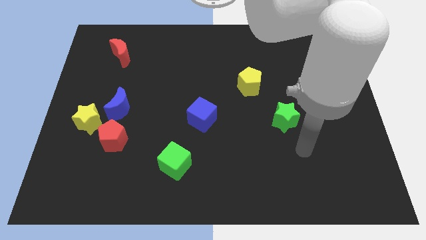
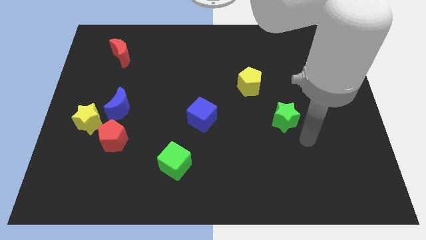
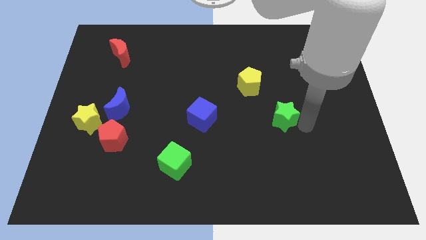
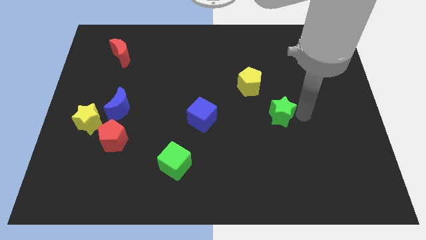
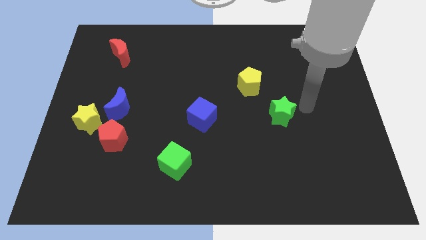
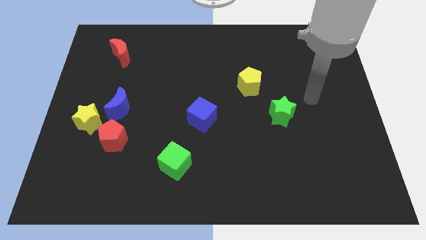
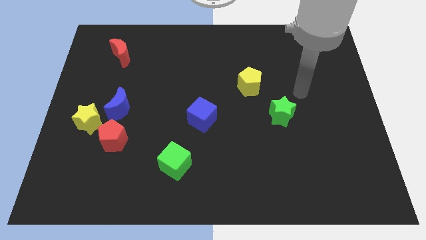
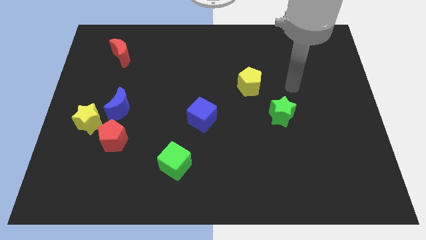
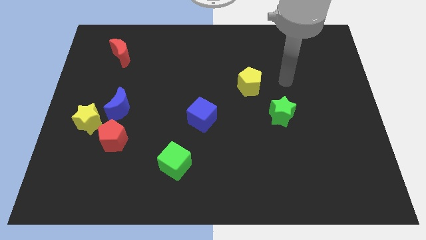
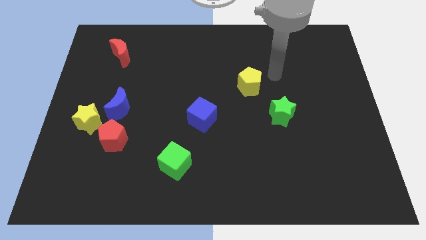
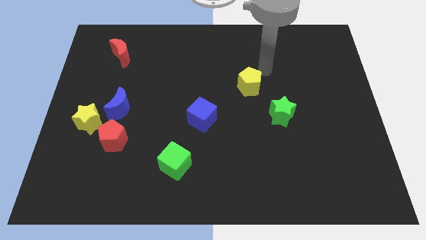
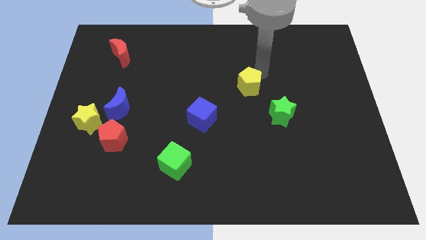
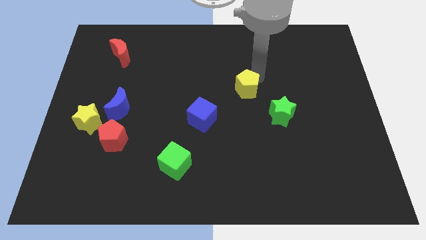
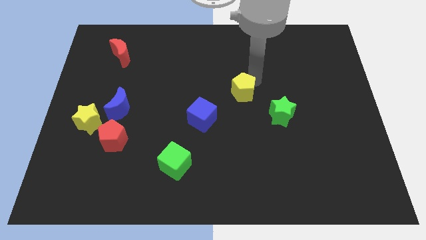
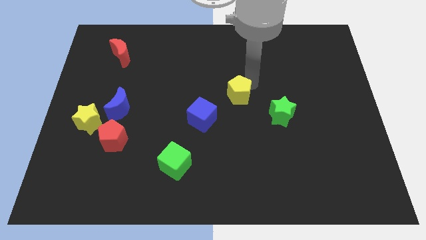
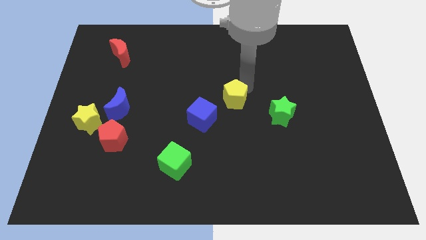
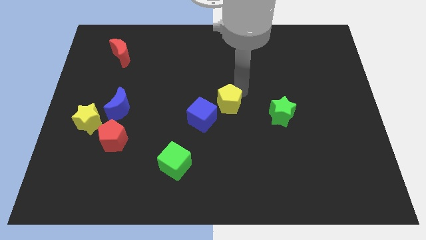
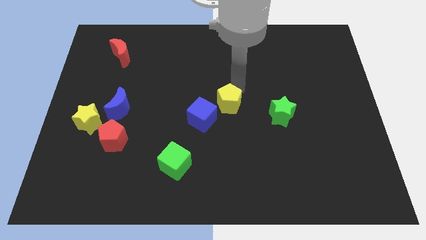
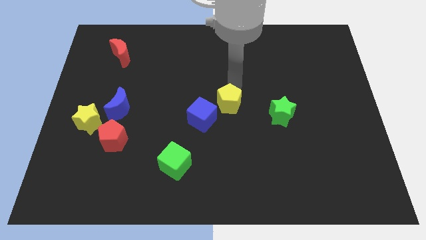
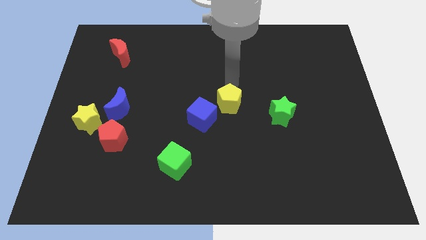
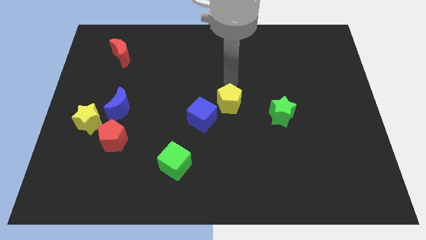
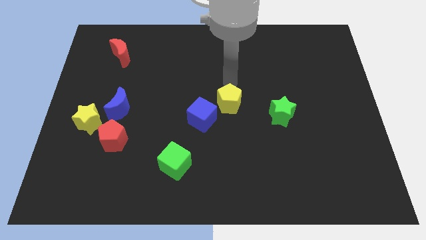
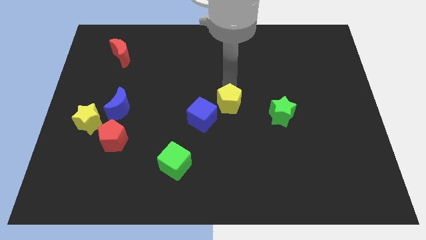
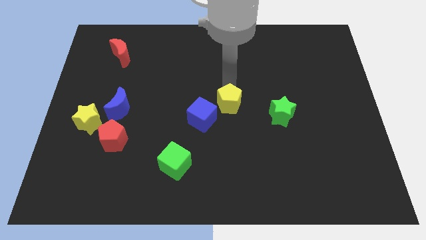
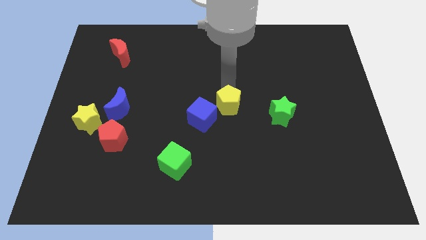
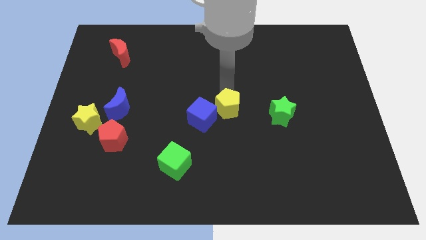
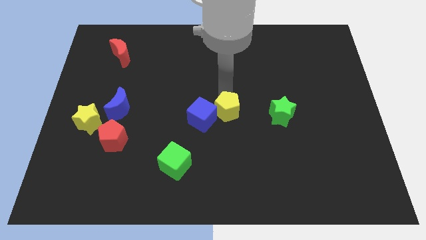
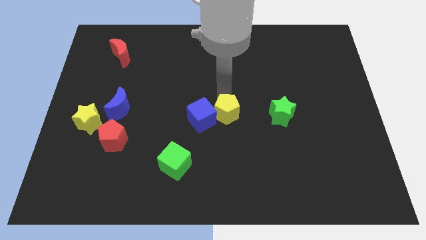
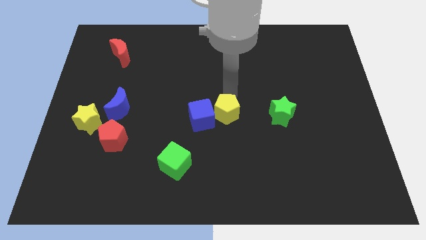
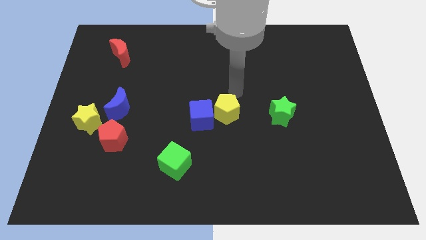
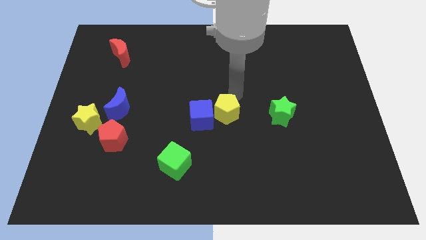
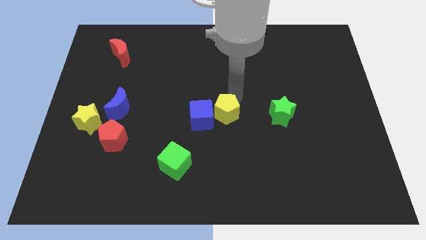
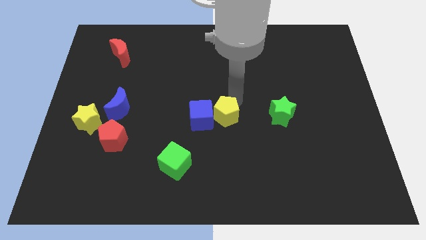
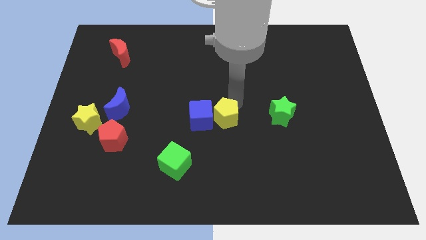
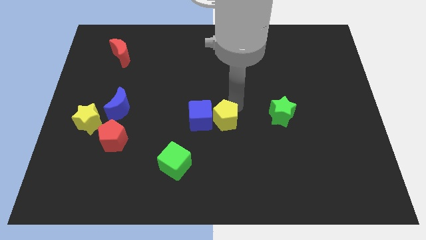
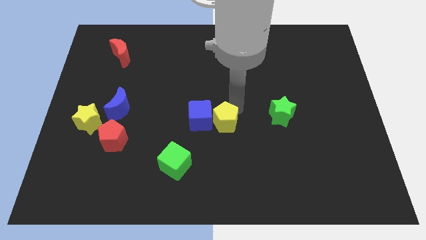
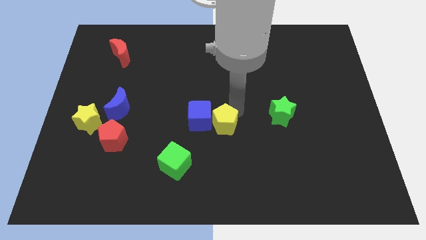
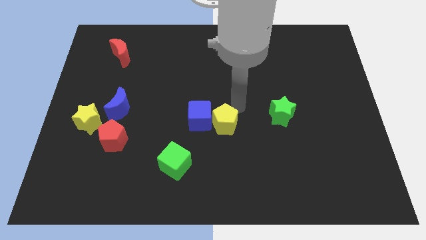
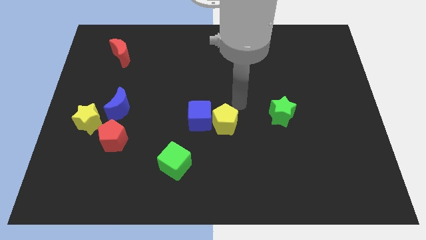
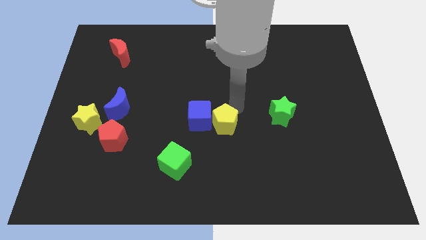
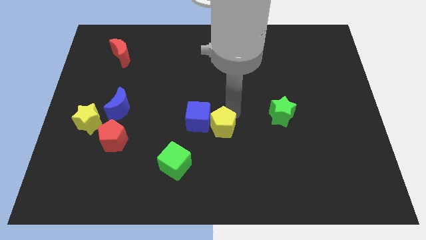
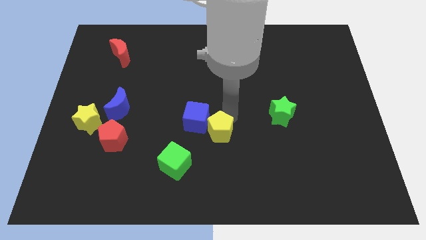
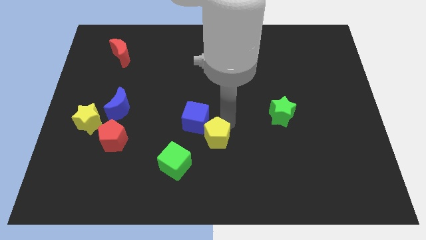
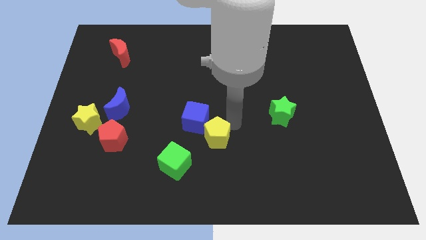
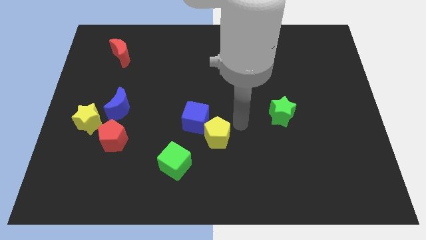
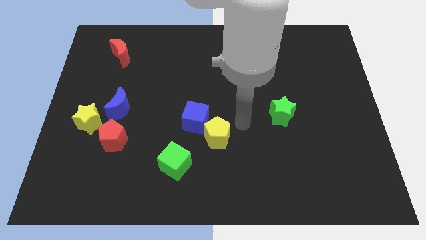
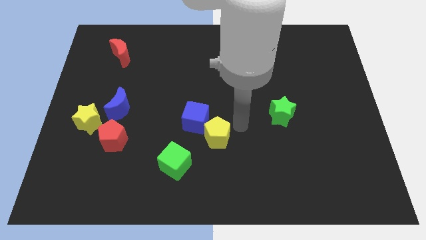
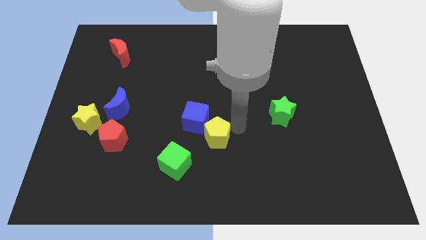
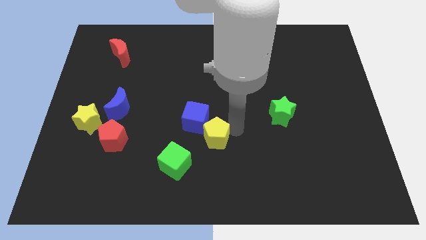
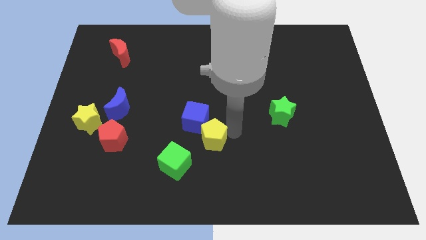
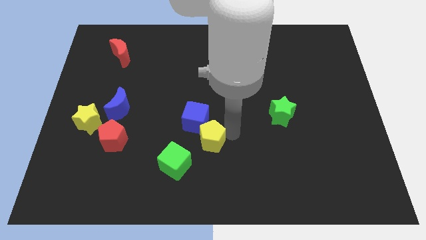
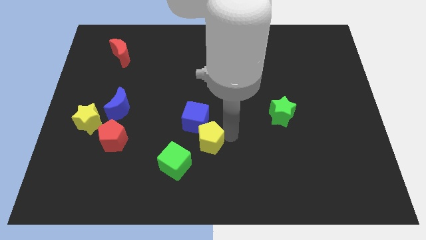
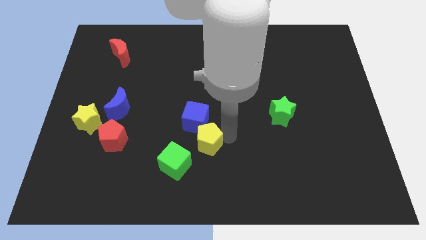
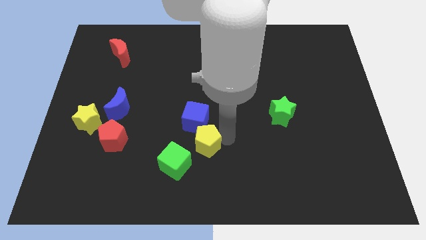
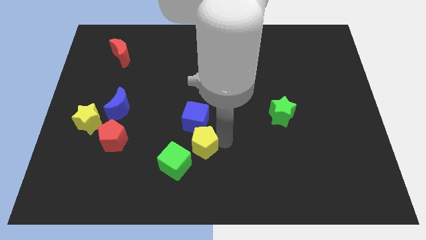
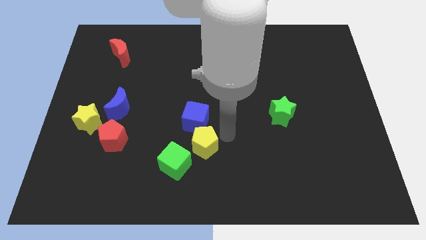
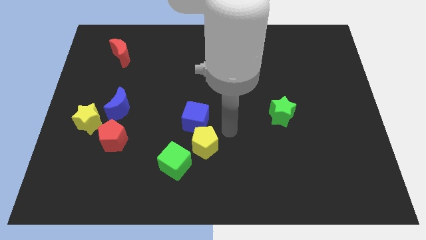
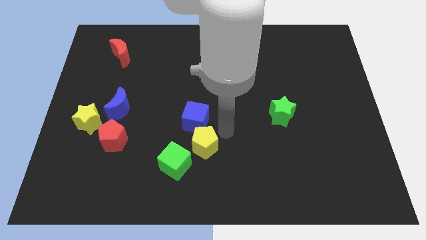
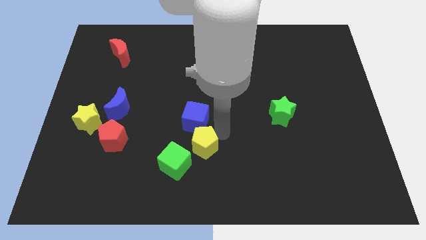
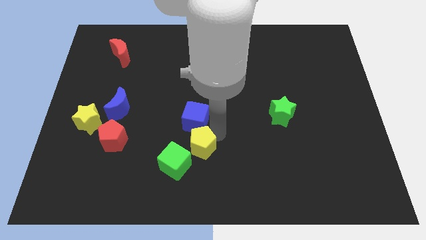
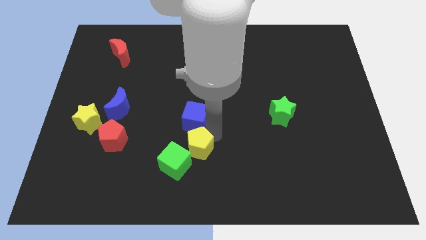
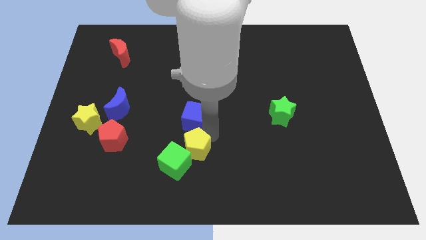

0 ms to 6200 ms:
put the yellow pentagon close to the green cube

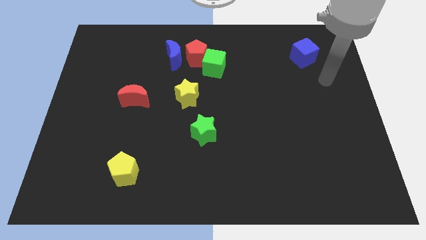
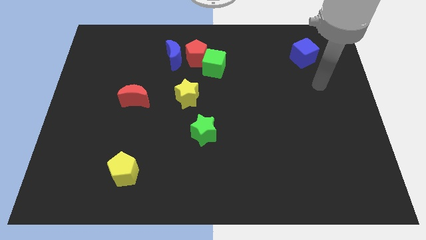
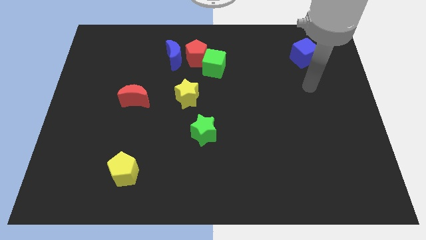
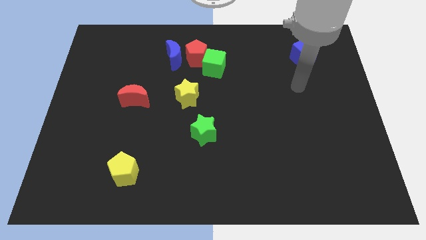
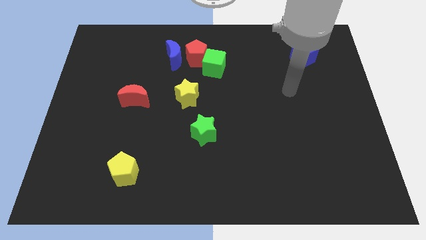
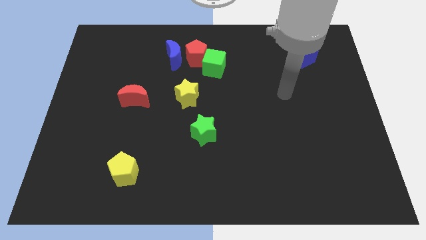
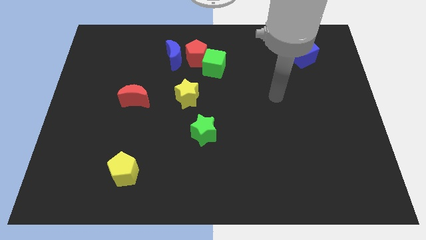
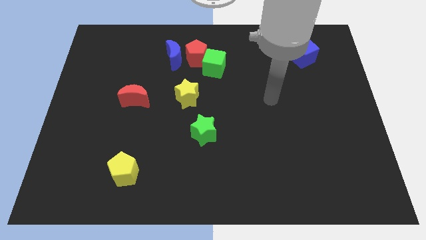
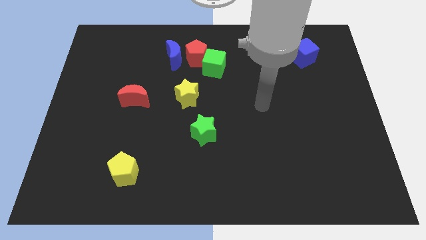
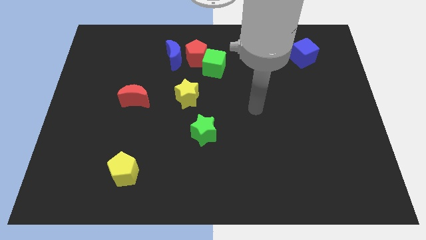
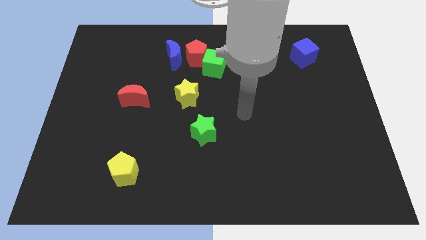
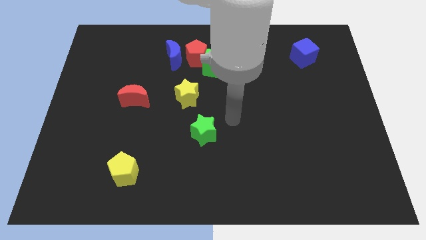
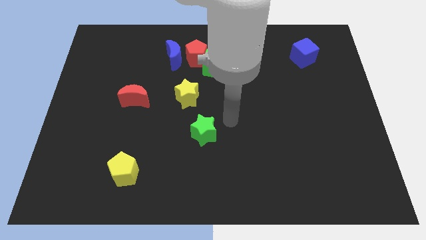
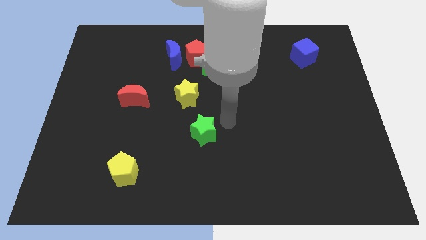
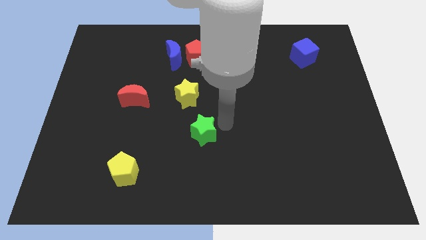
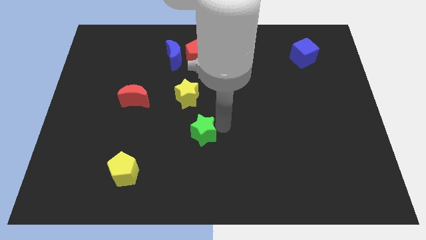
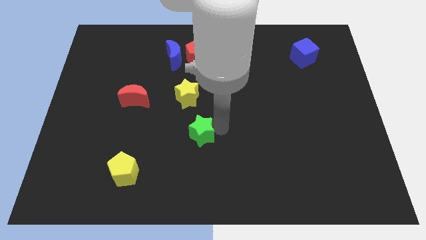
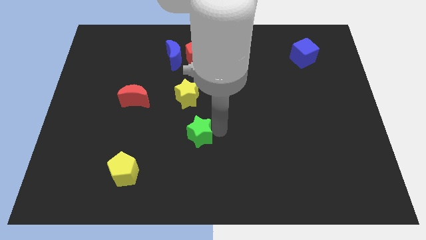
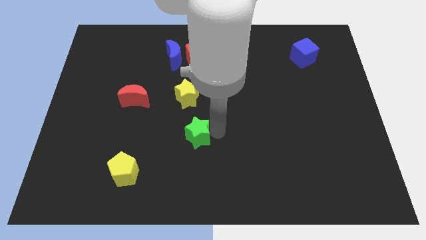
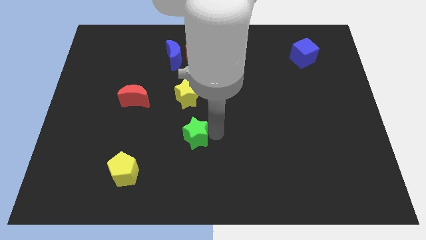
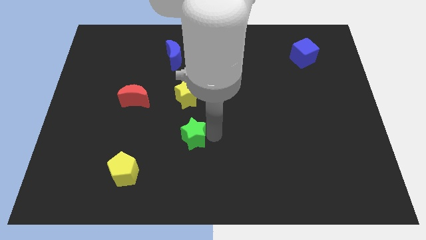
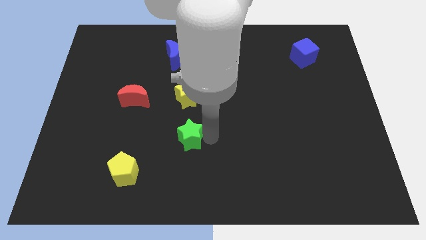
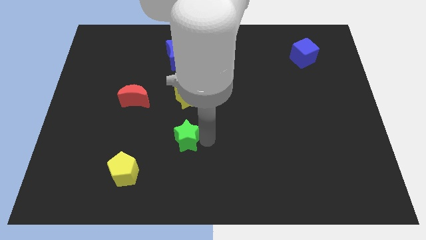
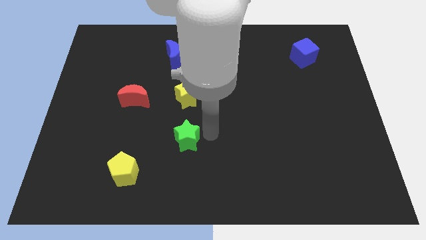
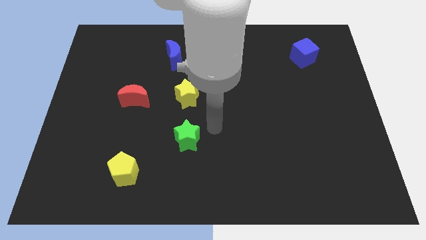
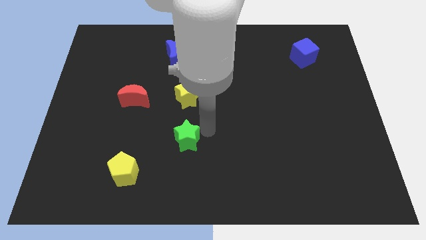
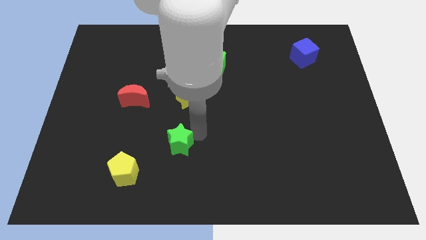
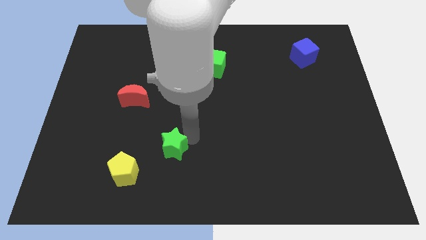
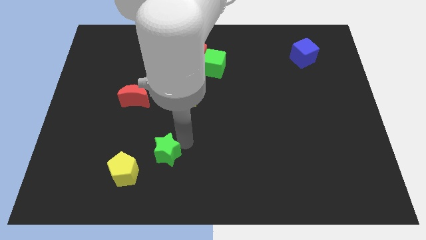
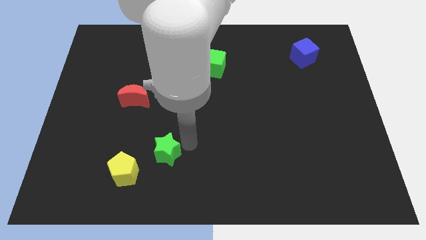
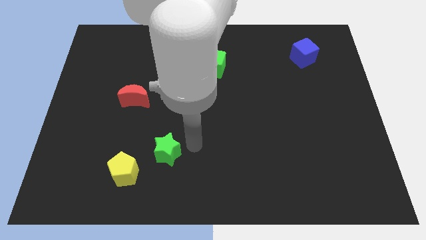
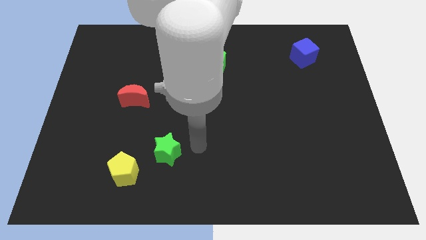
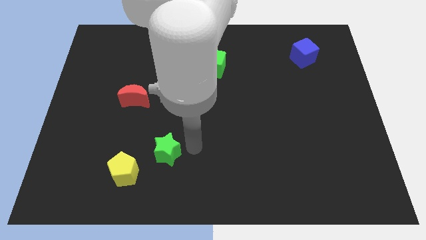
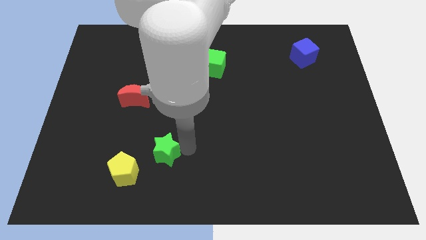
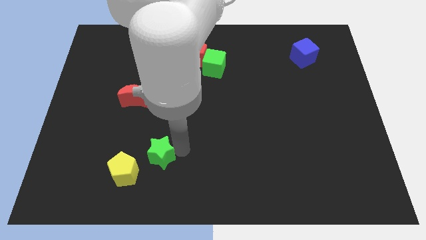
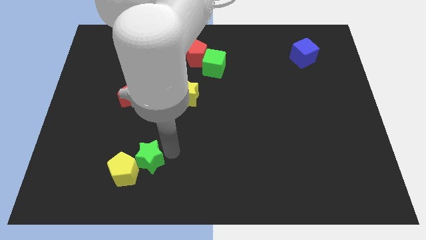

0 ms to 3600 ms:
slide the green star towards the yellow pentagon
